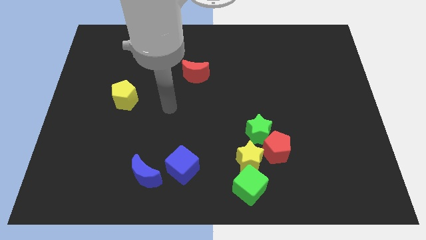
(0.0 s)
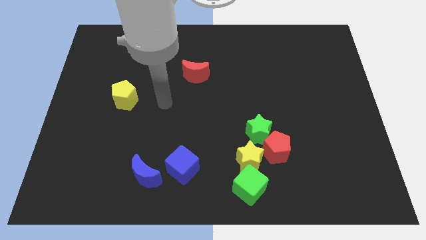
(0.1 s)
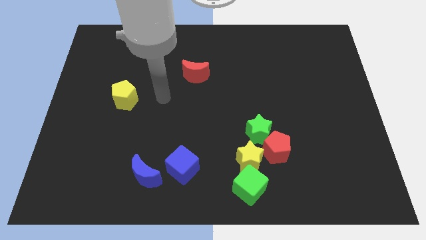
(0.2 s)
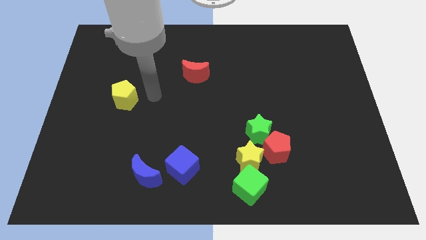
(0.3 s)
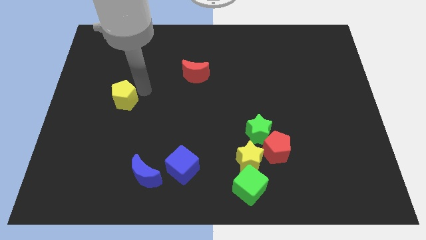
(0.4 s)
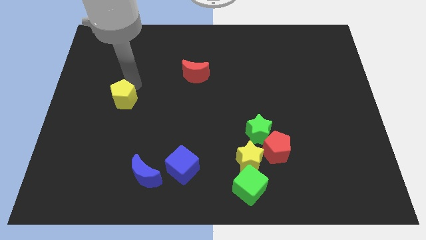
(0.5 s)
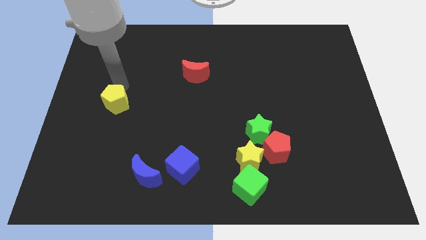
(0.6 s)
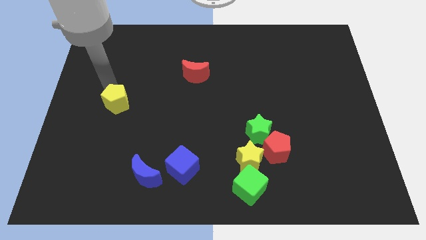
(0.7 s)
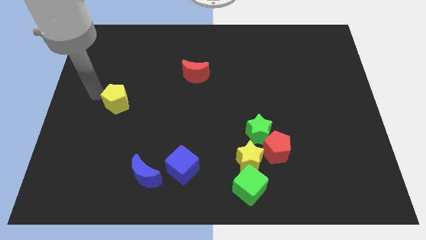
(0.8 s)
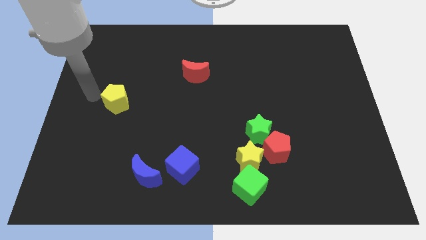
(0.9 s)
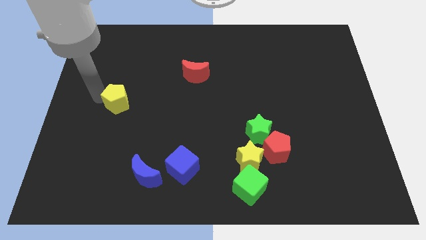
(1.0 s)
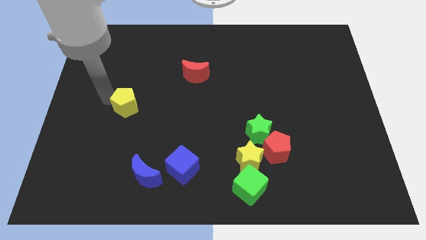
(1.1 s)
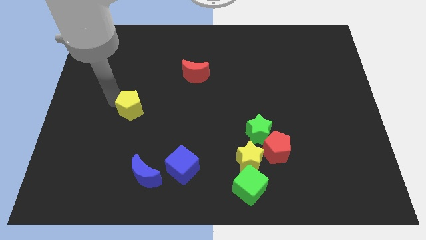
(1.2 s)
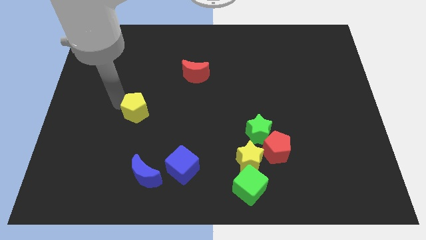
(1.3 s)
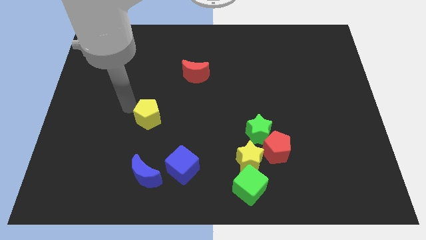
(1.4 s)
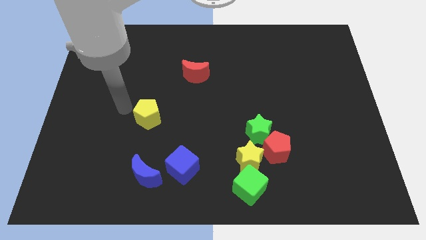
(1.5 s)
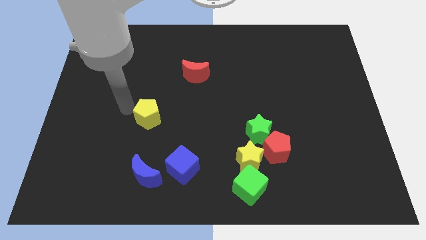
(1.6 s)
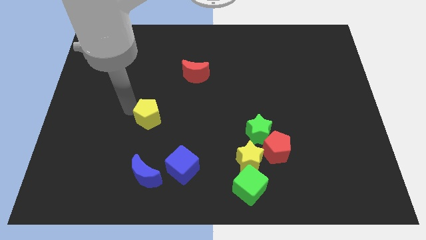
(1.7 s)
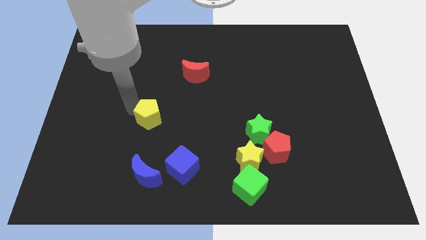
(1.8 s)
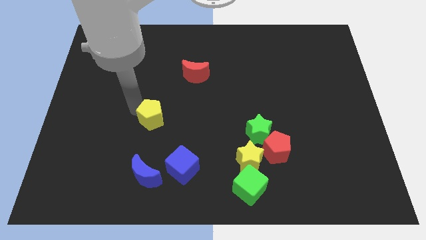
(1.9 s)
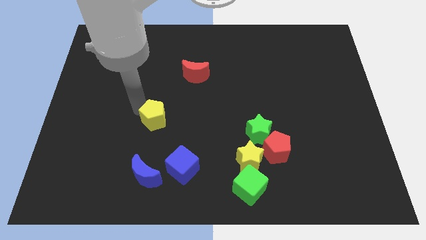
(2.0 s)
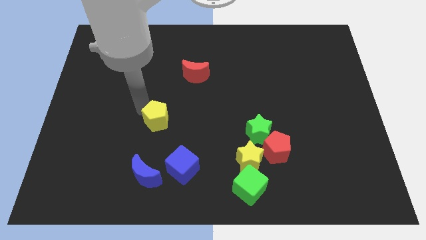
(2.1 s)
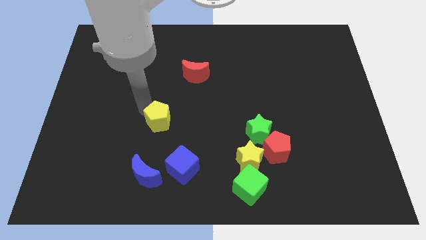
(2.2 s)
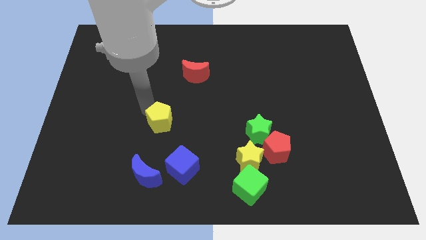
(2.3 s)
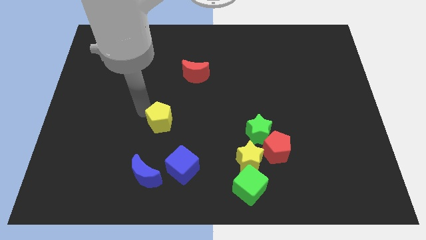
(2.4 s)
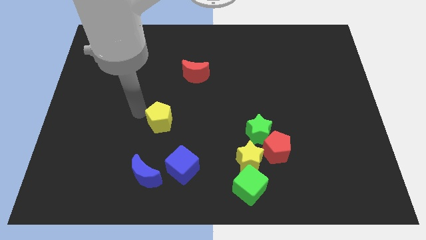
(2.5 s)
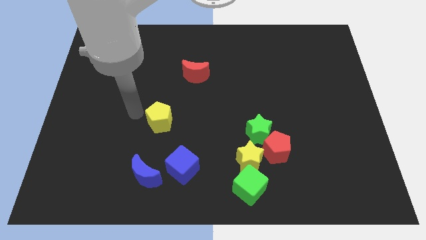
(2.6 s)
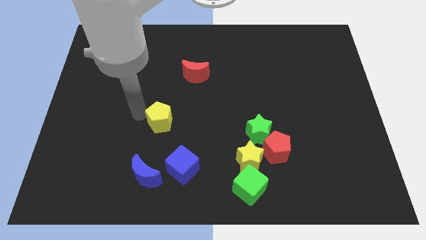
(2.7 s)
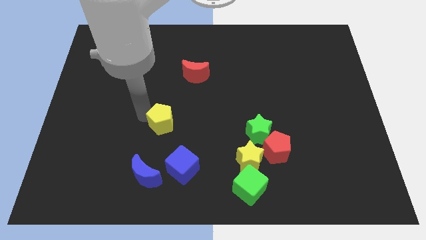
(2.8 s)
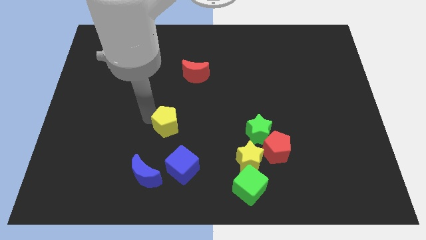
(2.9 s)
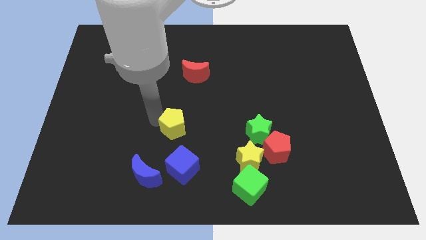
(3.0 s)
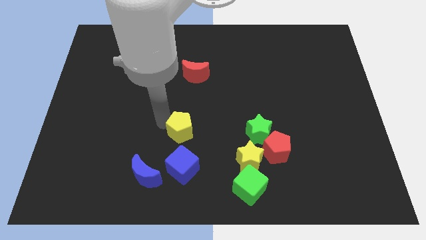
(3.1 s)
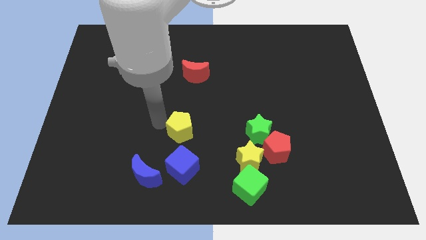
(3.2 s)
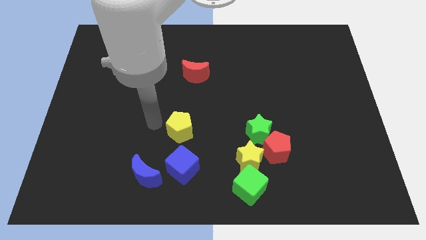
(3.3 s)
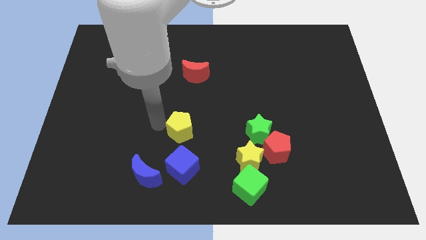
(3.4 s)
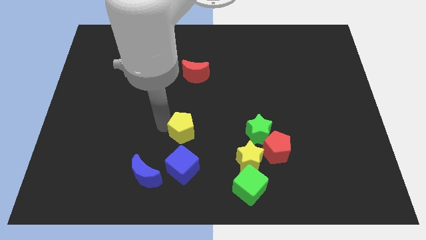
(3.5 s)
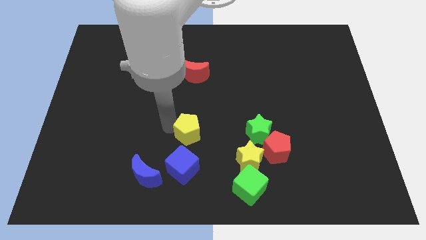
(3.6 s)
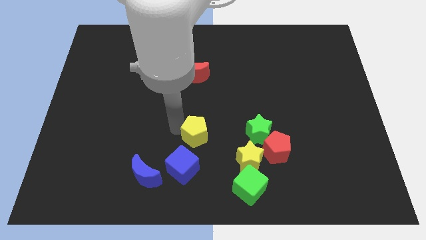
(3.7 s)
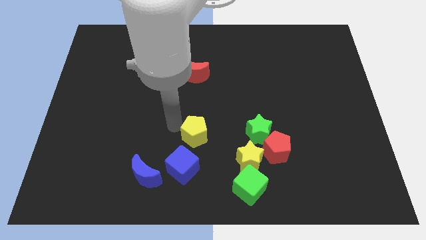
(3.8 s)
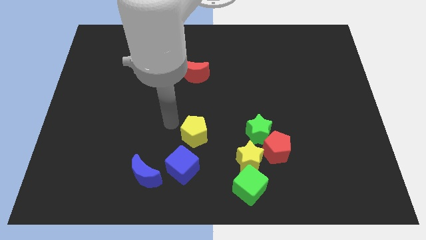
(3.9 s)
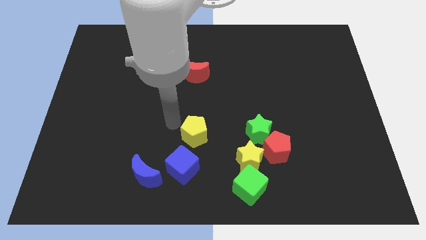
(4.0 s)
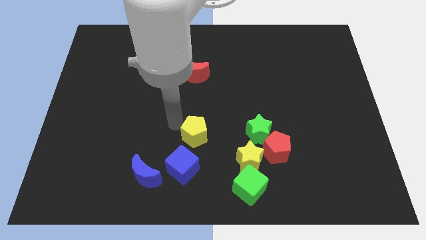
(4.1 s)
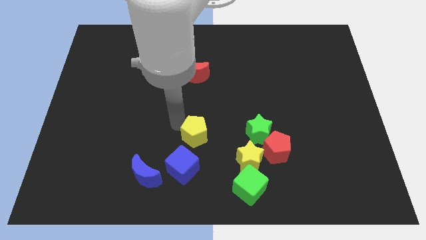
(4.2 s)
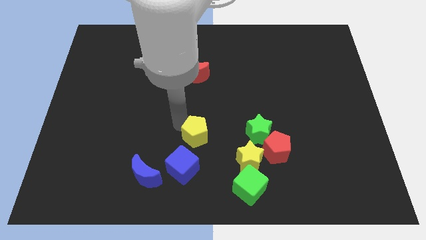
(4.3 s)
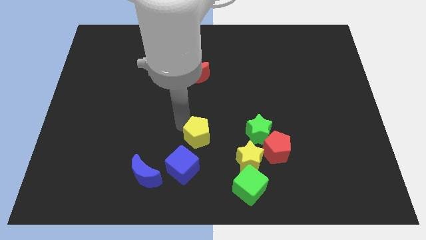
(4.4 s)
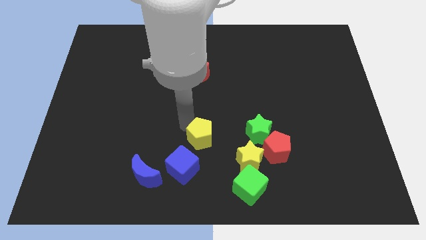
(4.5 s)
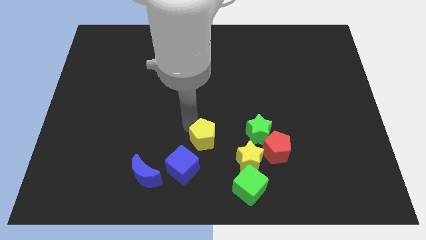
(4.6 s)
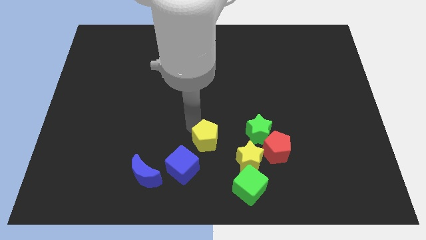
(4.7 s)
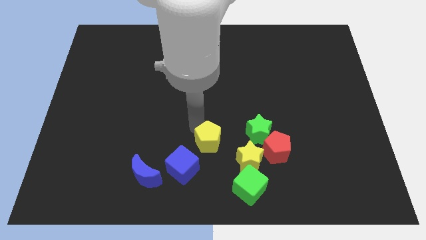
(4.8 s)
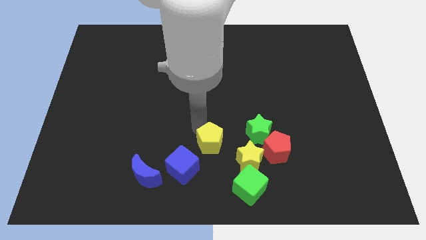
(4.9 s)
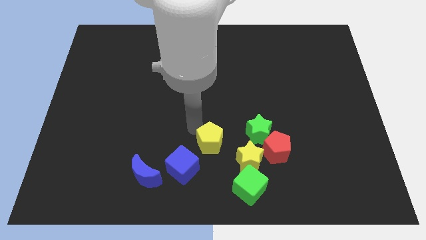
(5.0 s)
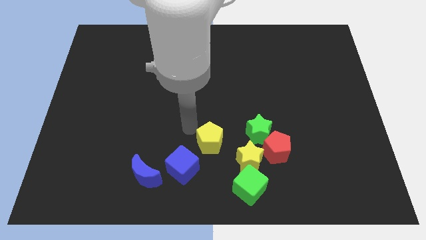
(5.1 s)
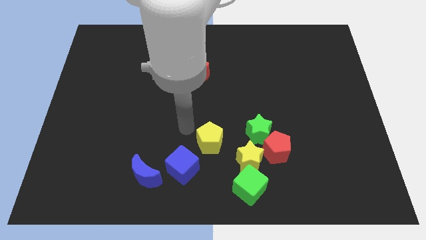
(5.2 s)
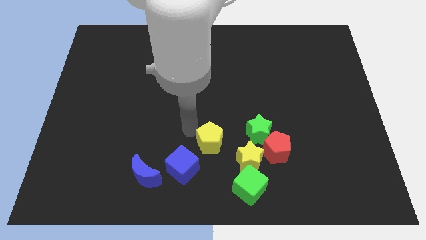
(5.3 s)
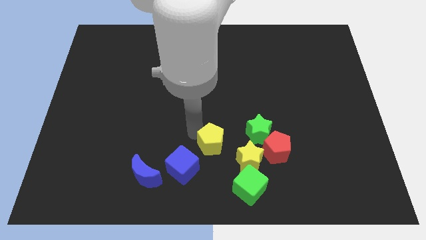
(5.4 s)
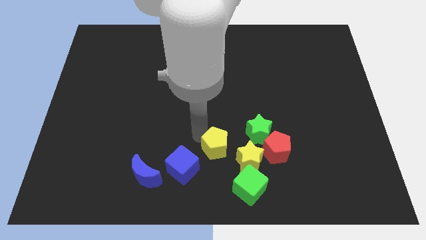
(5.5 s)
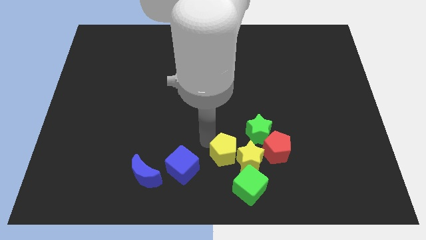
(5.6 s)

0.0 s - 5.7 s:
slide the yellow pentagon to the yellow star

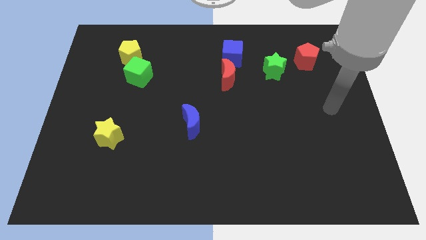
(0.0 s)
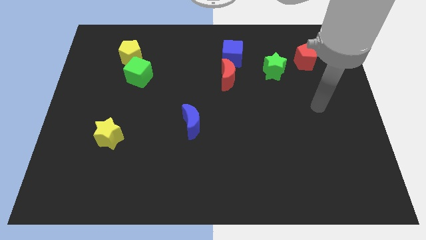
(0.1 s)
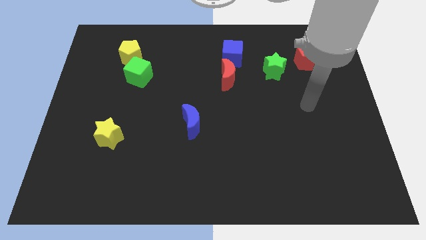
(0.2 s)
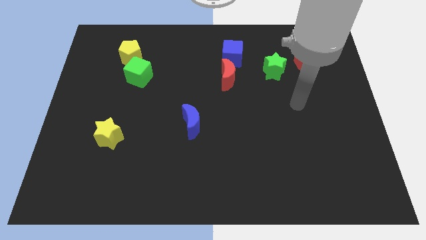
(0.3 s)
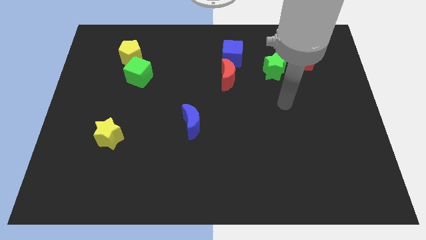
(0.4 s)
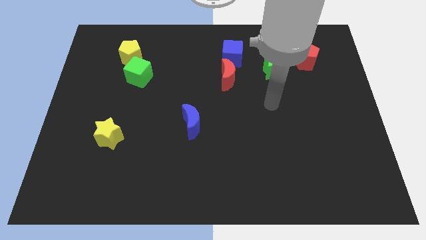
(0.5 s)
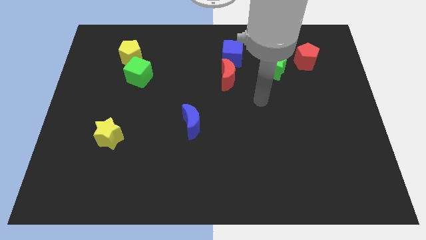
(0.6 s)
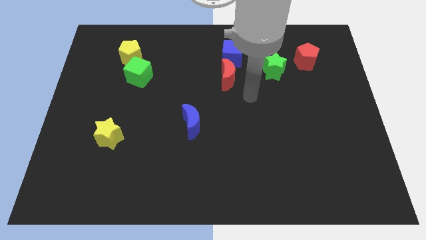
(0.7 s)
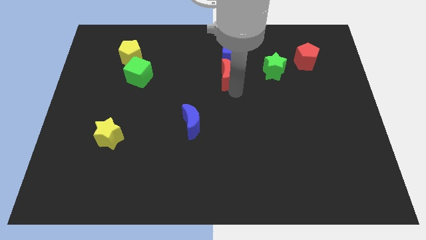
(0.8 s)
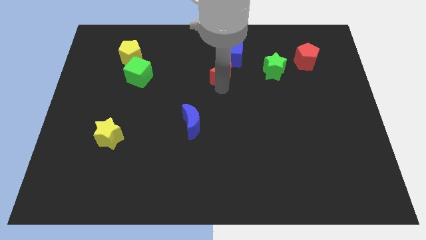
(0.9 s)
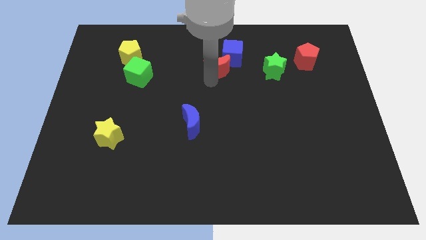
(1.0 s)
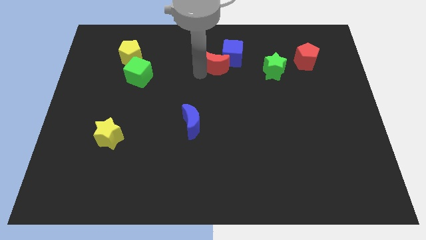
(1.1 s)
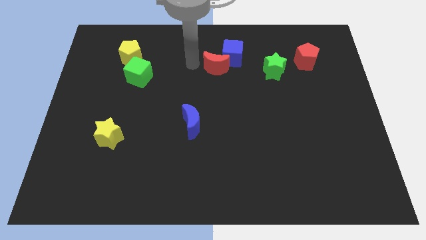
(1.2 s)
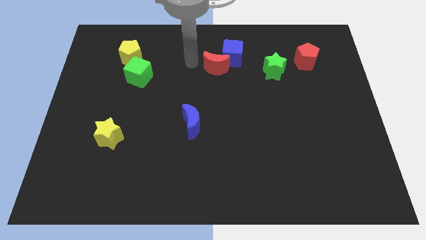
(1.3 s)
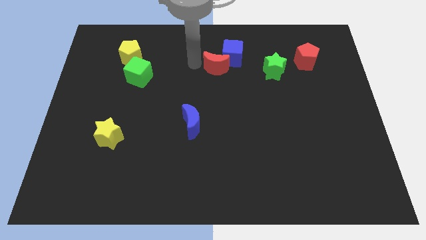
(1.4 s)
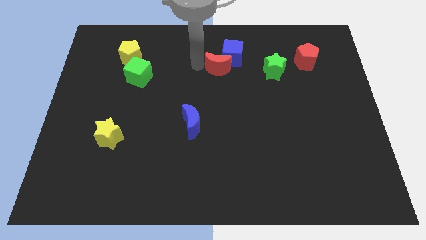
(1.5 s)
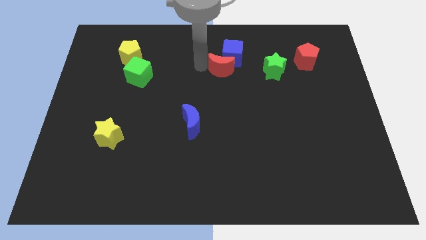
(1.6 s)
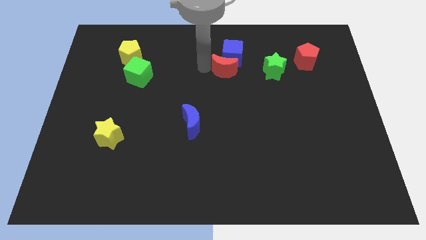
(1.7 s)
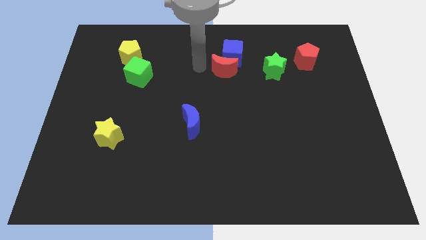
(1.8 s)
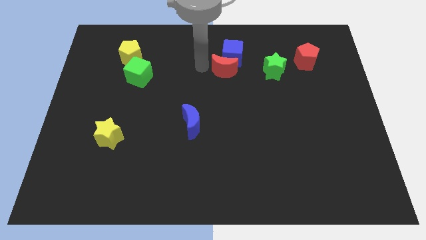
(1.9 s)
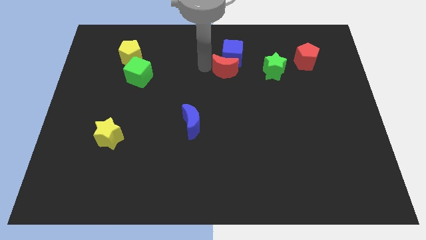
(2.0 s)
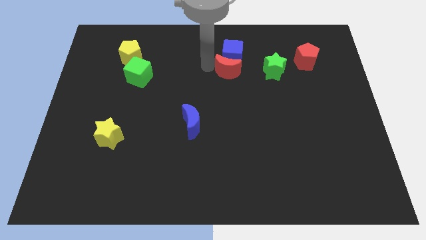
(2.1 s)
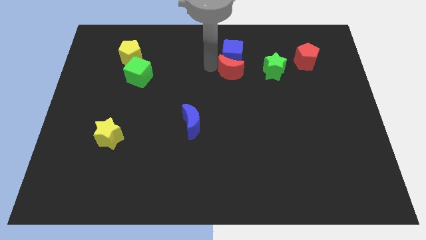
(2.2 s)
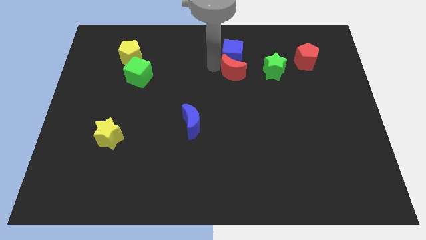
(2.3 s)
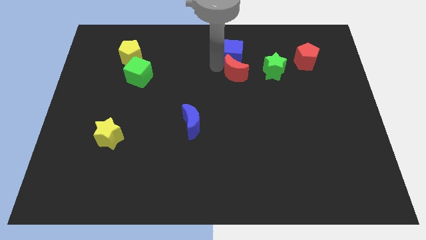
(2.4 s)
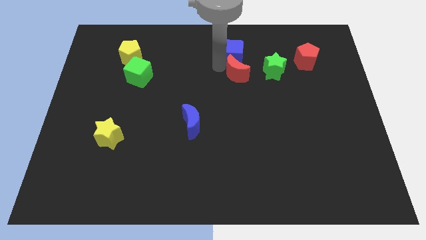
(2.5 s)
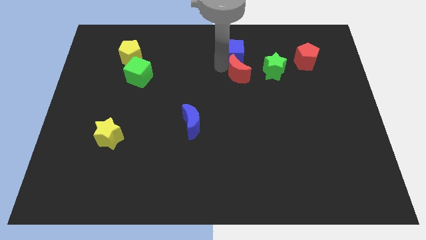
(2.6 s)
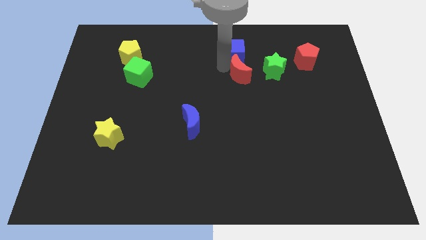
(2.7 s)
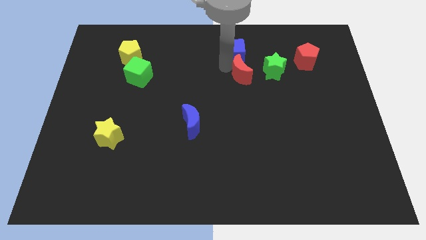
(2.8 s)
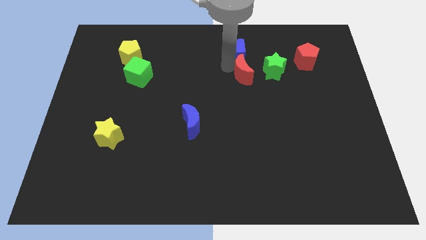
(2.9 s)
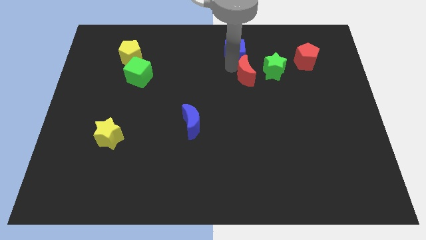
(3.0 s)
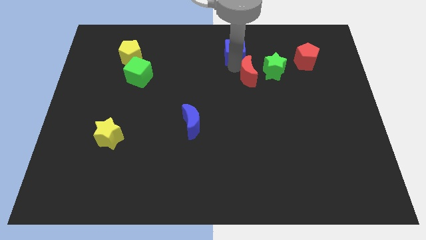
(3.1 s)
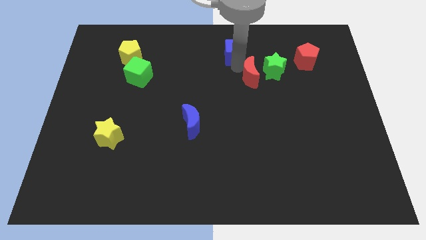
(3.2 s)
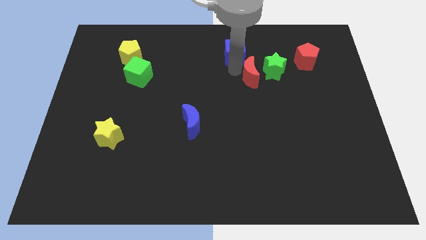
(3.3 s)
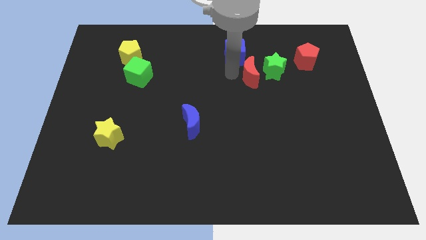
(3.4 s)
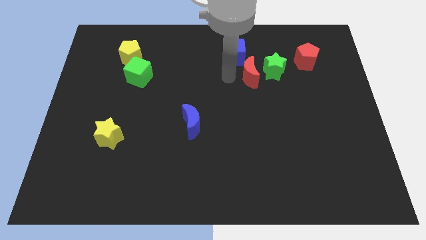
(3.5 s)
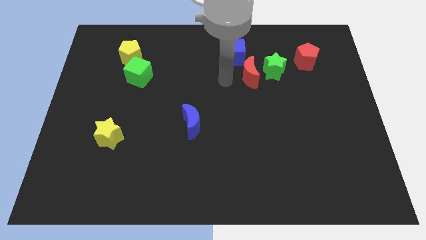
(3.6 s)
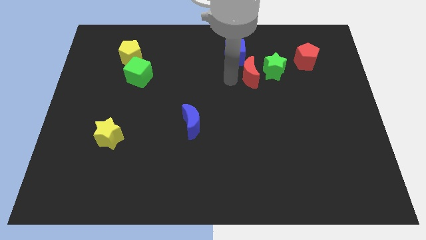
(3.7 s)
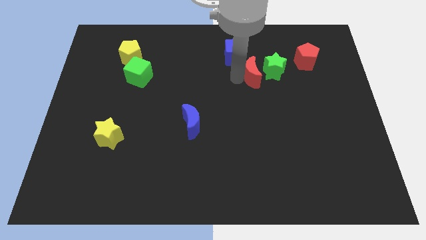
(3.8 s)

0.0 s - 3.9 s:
slide the red moon close to the green star
